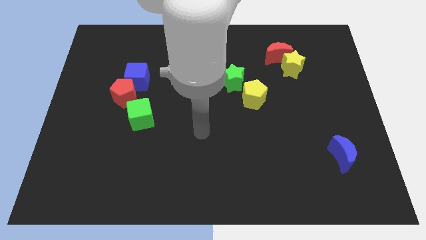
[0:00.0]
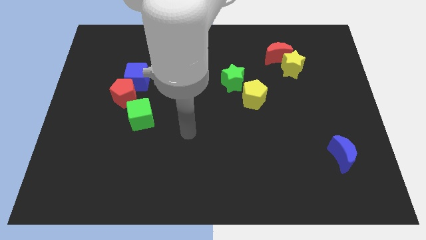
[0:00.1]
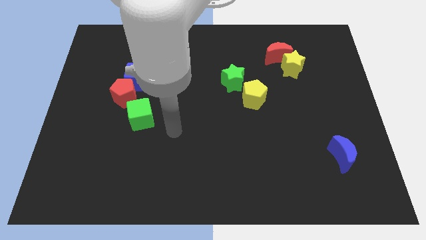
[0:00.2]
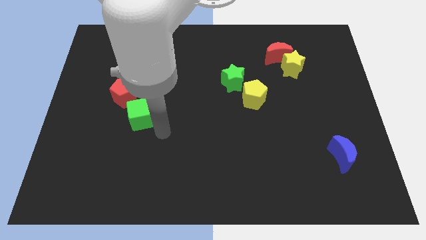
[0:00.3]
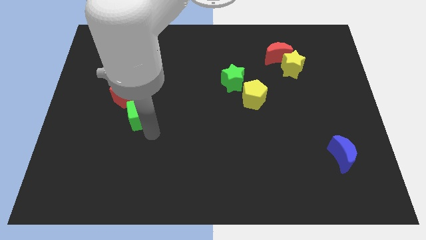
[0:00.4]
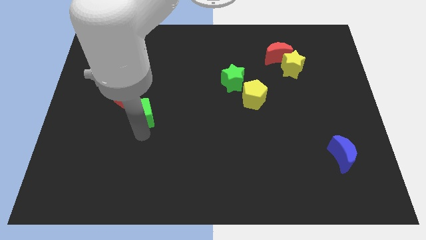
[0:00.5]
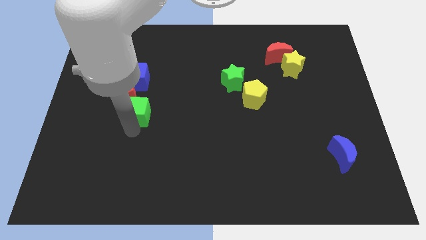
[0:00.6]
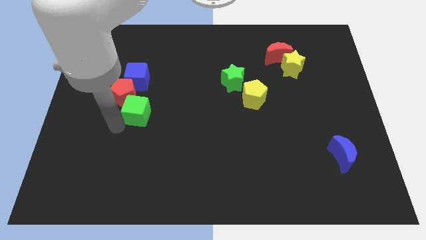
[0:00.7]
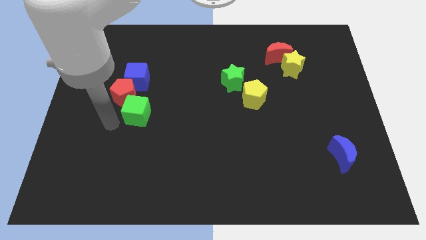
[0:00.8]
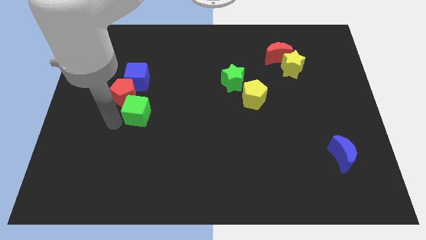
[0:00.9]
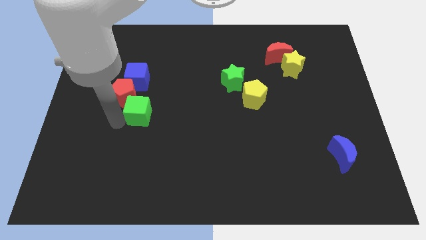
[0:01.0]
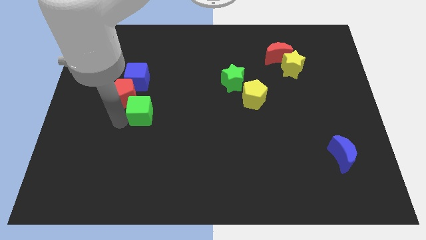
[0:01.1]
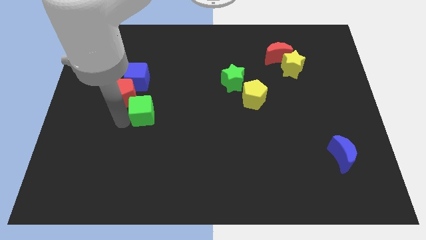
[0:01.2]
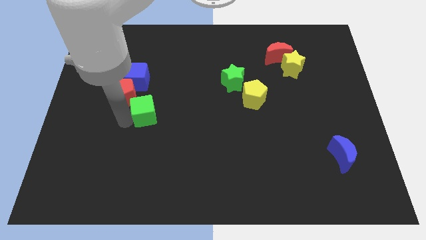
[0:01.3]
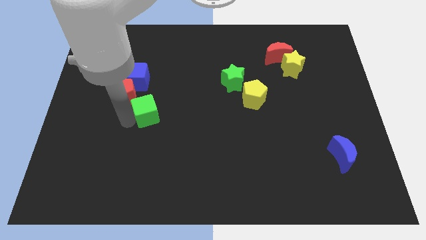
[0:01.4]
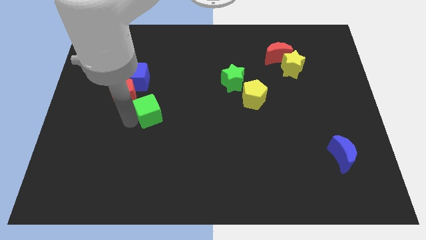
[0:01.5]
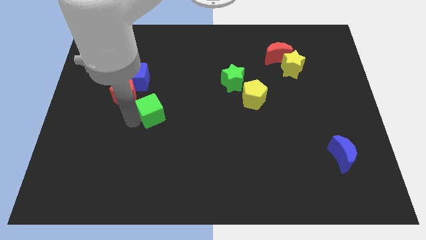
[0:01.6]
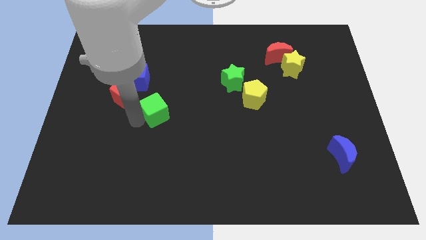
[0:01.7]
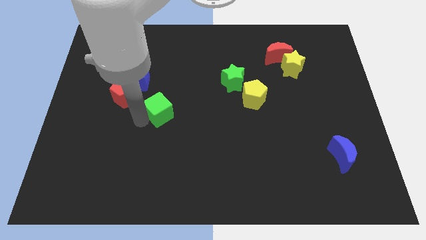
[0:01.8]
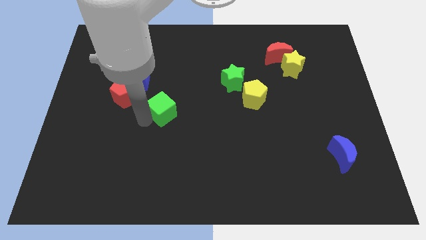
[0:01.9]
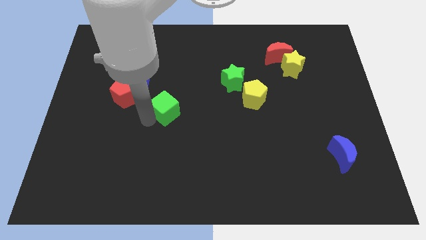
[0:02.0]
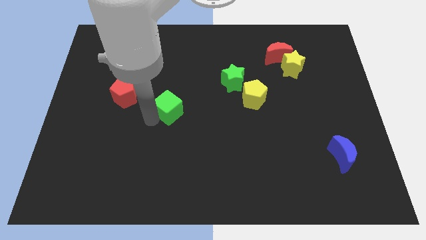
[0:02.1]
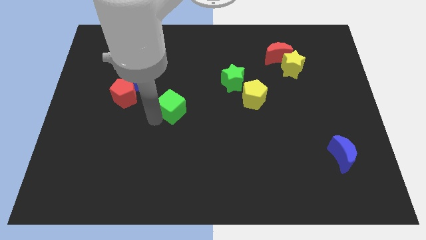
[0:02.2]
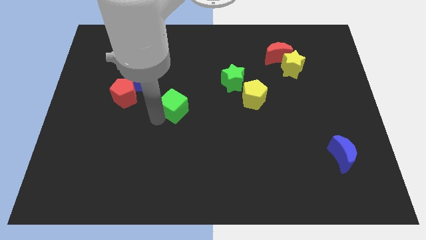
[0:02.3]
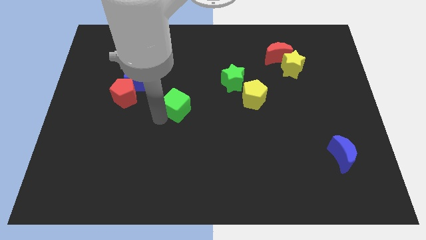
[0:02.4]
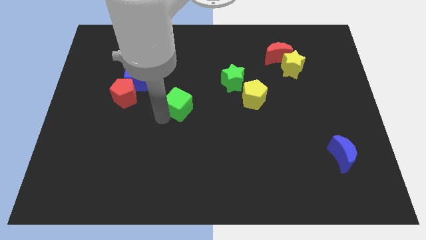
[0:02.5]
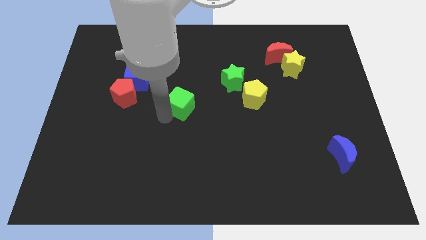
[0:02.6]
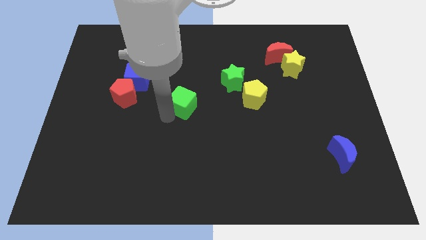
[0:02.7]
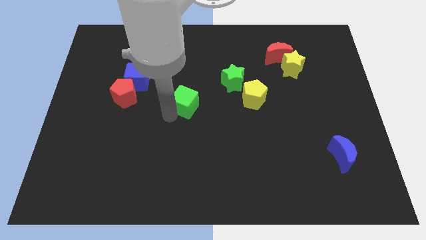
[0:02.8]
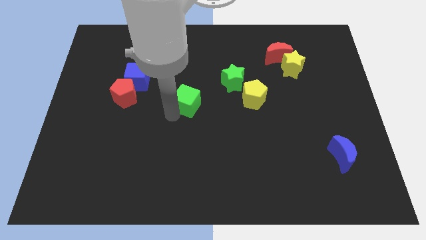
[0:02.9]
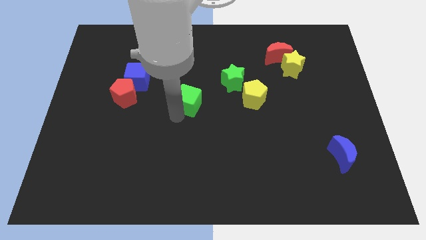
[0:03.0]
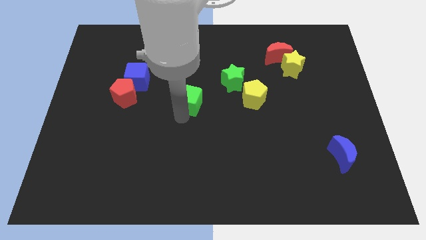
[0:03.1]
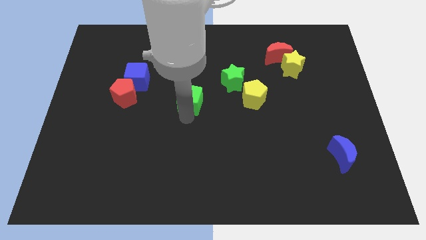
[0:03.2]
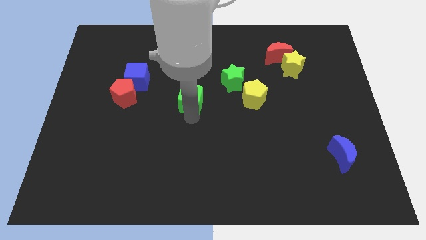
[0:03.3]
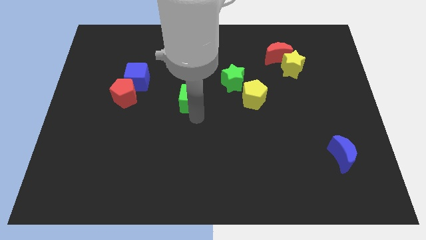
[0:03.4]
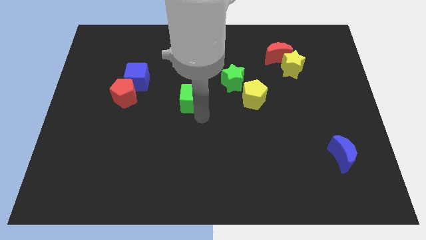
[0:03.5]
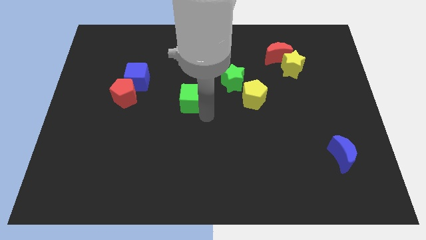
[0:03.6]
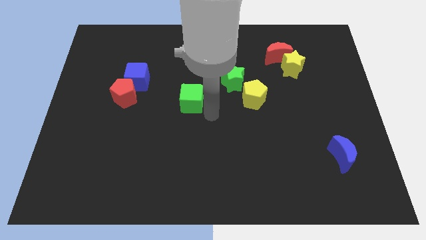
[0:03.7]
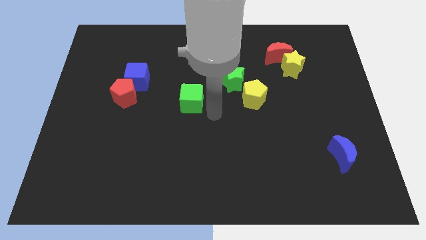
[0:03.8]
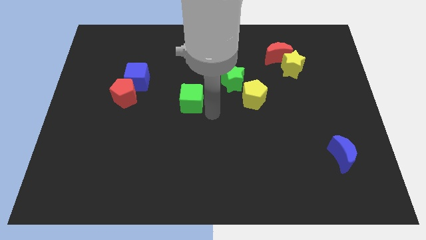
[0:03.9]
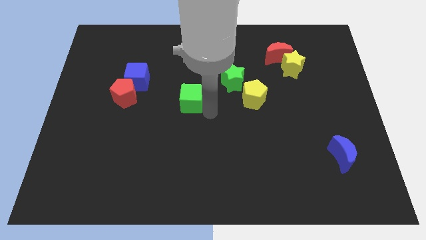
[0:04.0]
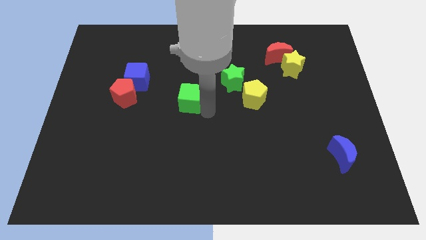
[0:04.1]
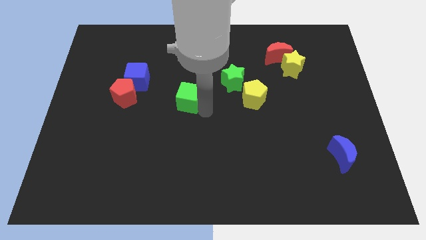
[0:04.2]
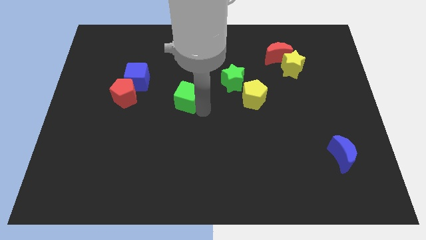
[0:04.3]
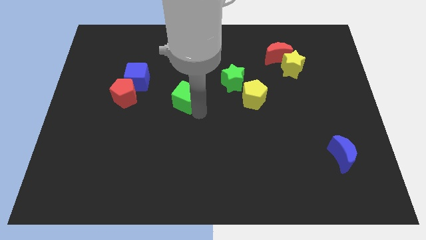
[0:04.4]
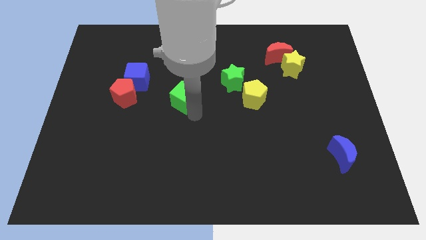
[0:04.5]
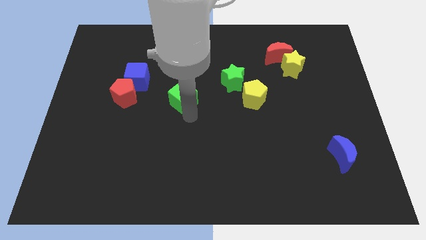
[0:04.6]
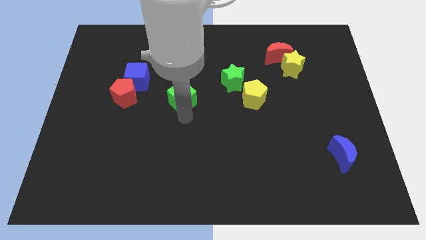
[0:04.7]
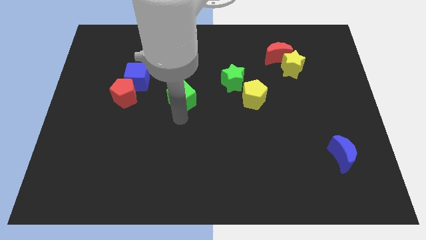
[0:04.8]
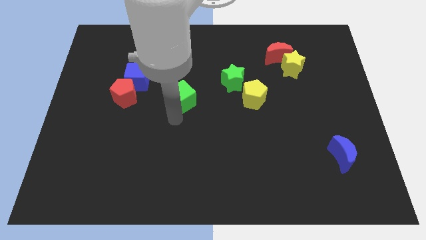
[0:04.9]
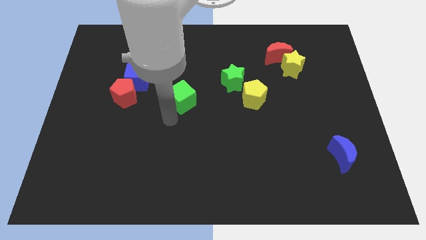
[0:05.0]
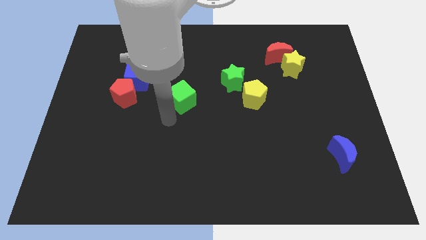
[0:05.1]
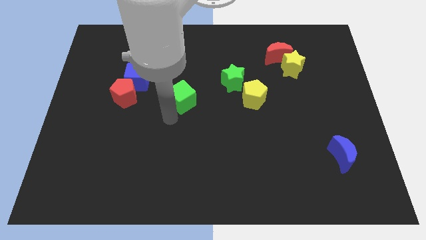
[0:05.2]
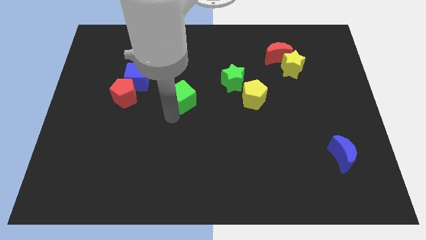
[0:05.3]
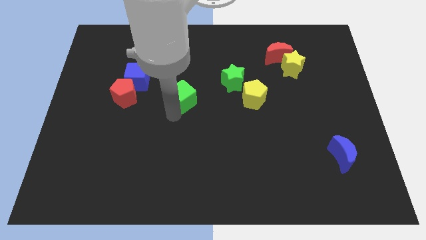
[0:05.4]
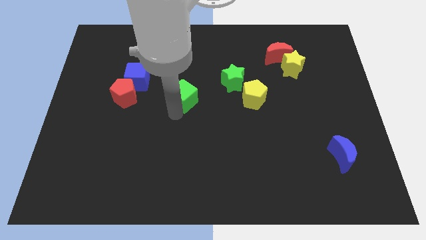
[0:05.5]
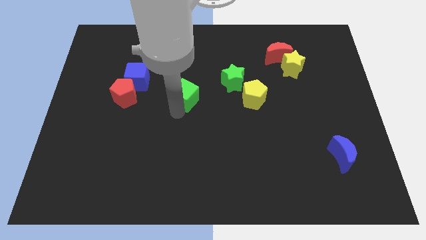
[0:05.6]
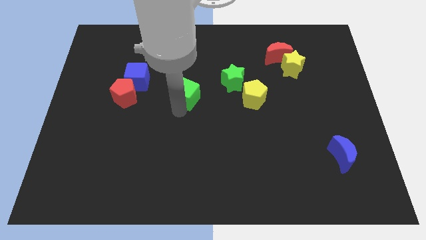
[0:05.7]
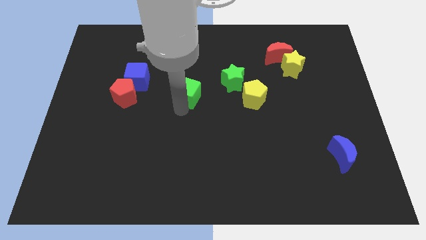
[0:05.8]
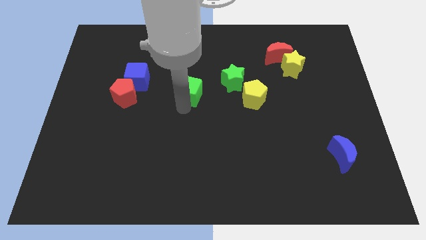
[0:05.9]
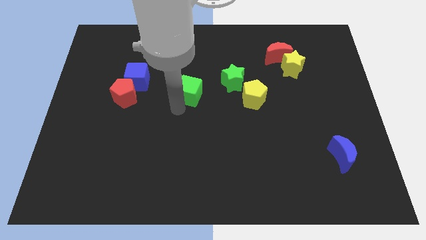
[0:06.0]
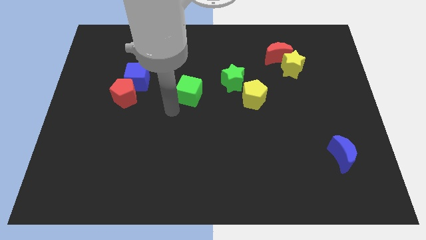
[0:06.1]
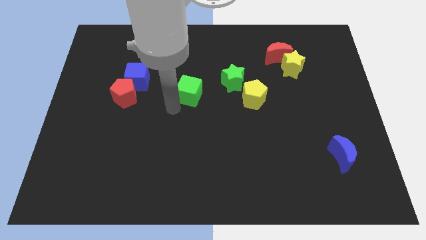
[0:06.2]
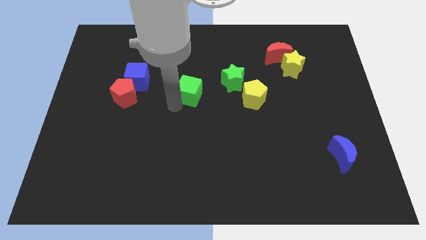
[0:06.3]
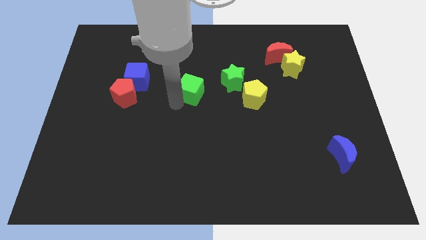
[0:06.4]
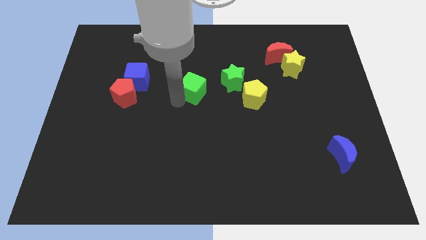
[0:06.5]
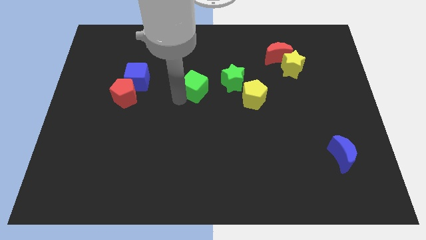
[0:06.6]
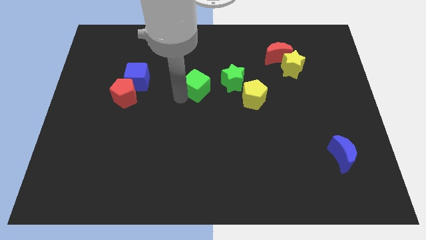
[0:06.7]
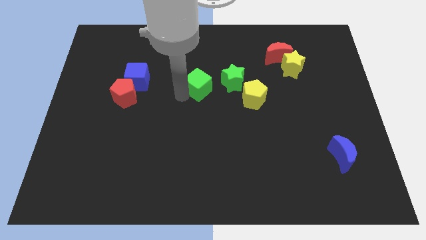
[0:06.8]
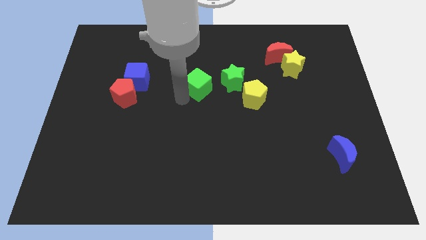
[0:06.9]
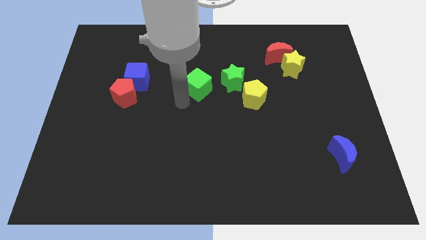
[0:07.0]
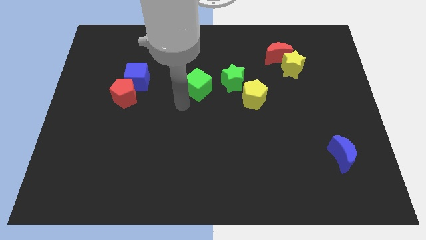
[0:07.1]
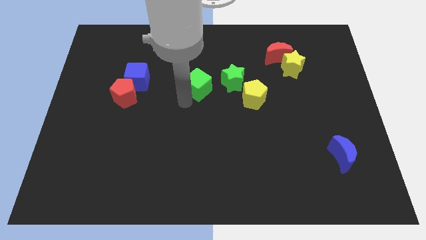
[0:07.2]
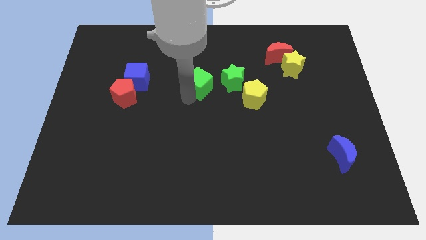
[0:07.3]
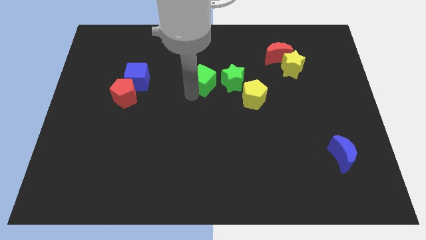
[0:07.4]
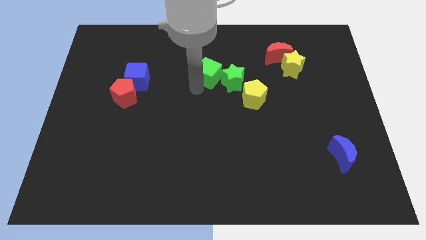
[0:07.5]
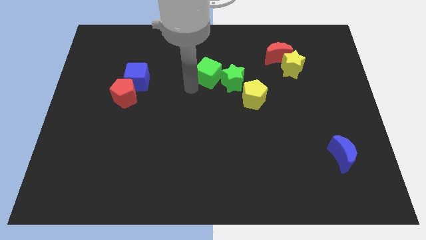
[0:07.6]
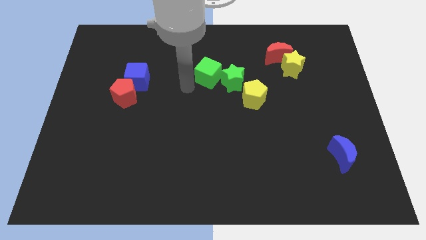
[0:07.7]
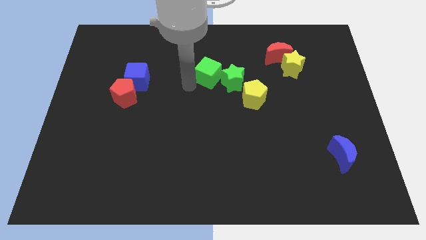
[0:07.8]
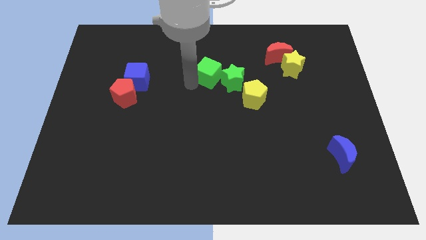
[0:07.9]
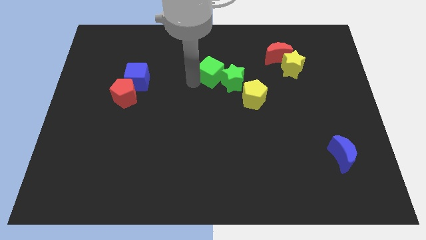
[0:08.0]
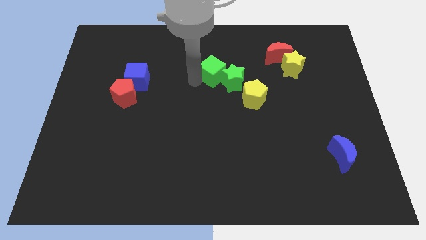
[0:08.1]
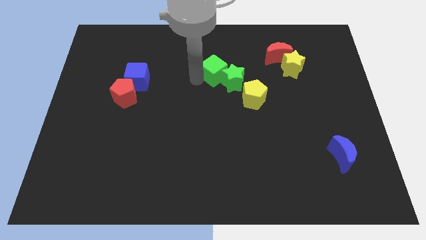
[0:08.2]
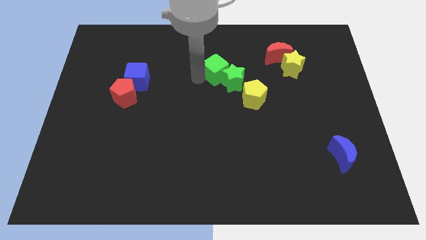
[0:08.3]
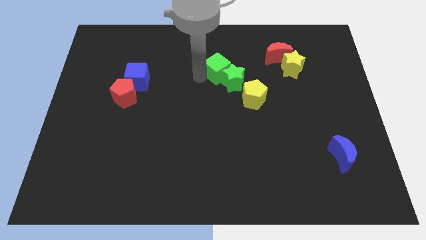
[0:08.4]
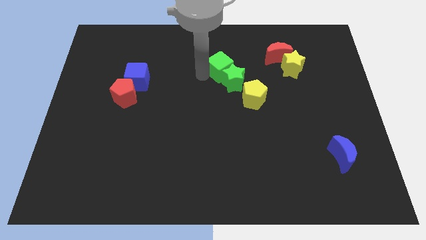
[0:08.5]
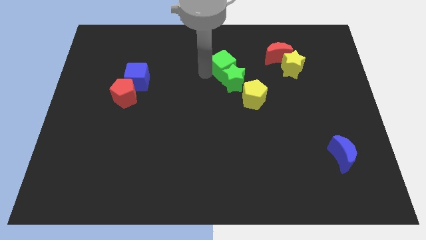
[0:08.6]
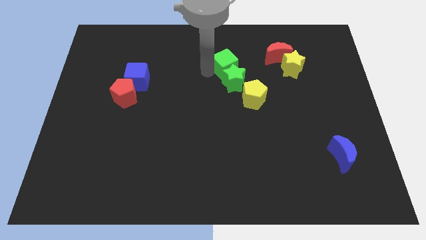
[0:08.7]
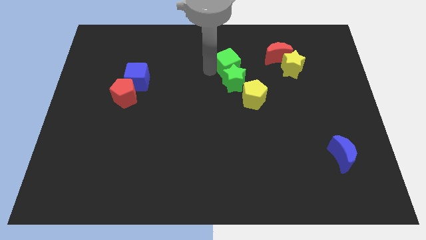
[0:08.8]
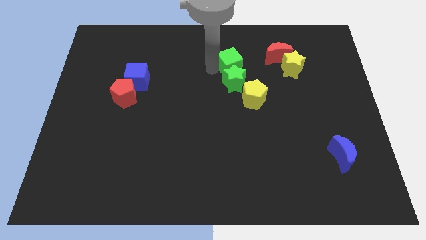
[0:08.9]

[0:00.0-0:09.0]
slide the green cube just left of the yellow star
